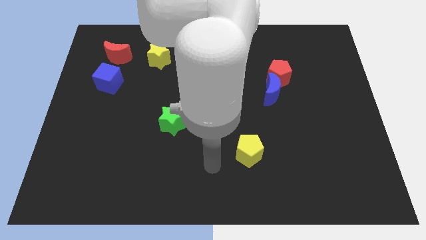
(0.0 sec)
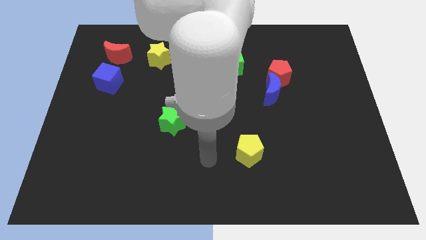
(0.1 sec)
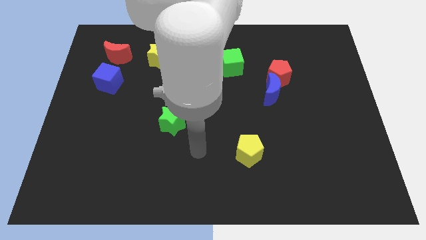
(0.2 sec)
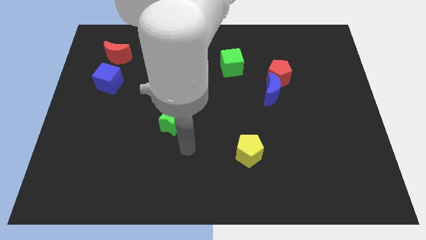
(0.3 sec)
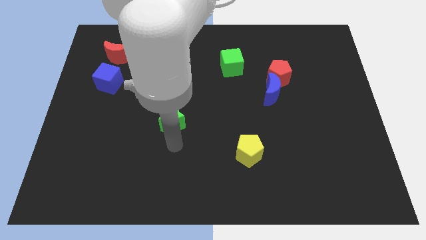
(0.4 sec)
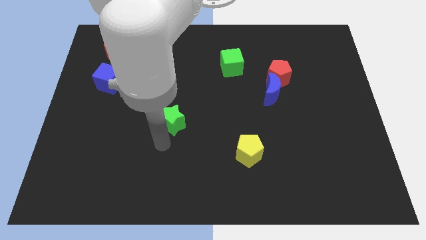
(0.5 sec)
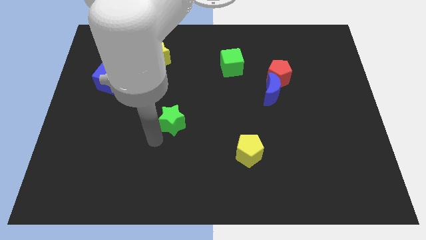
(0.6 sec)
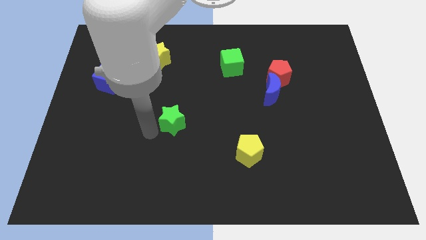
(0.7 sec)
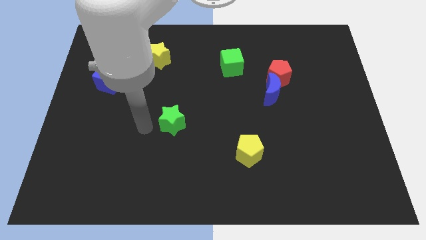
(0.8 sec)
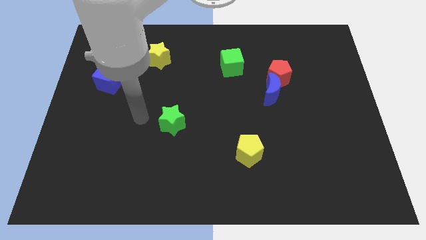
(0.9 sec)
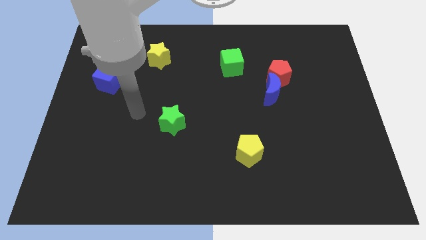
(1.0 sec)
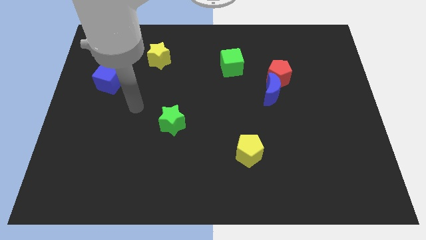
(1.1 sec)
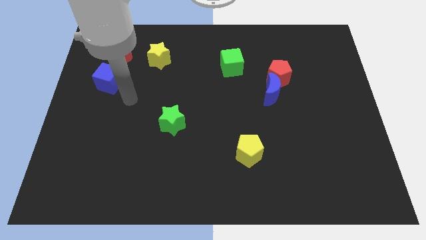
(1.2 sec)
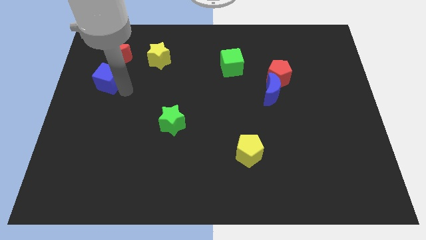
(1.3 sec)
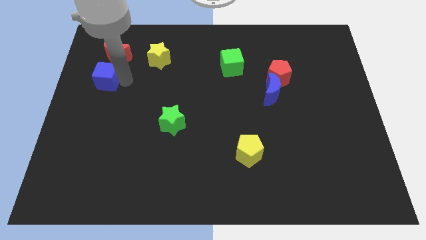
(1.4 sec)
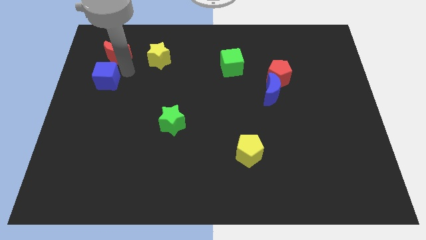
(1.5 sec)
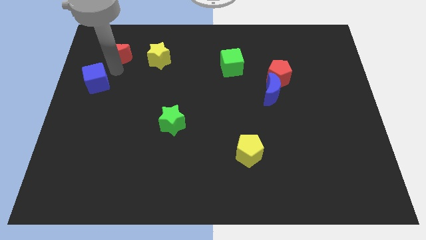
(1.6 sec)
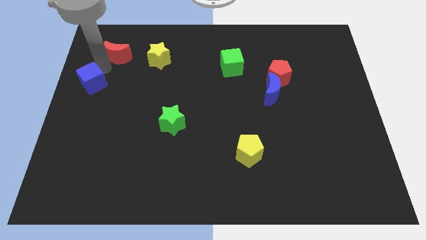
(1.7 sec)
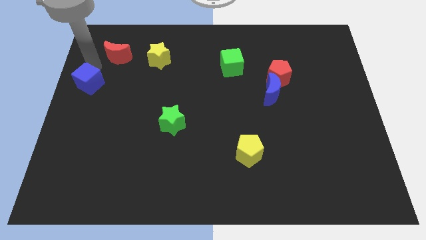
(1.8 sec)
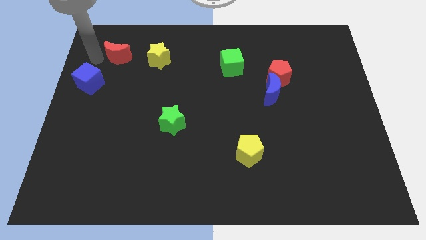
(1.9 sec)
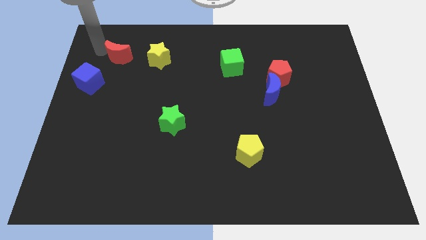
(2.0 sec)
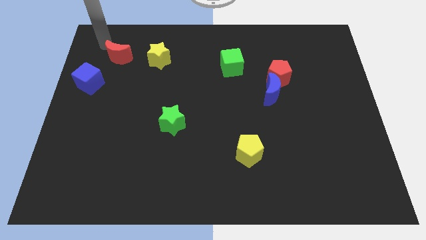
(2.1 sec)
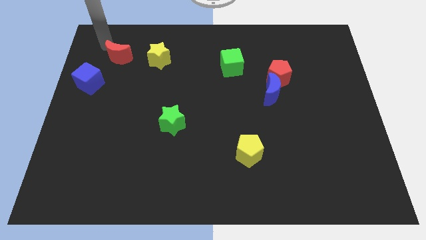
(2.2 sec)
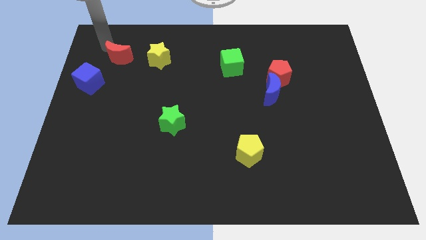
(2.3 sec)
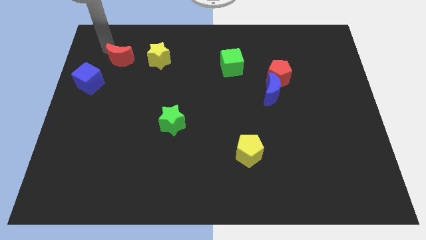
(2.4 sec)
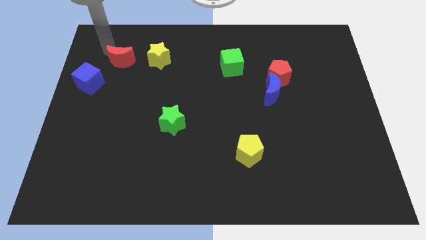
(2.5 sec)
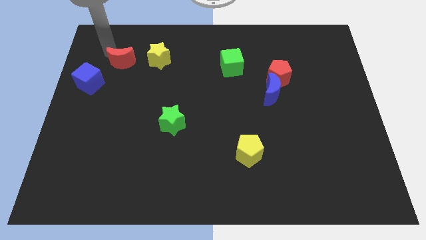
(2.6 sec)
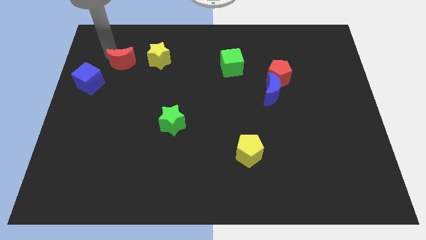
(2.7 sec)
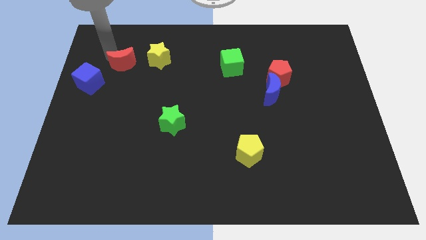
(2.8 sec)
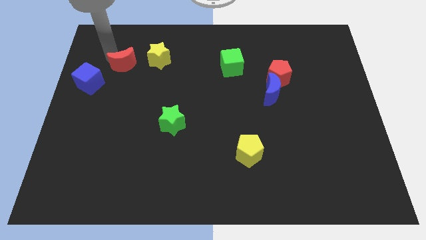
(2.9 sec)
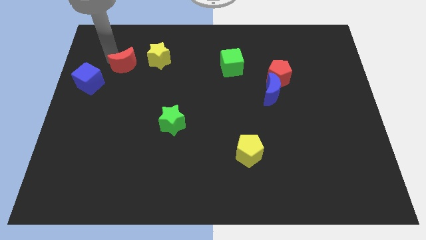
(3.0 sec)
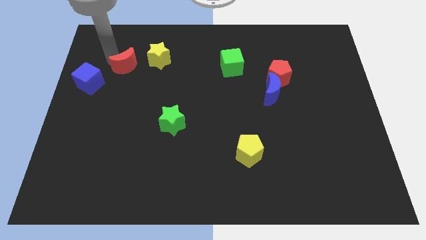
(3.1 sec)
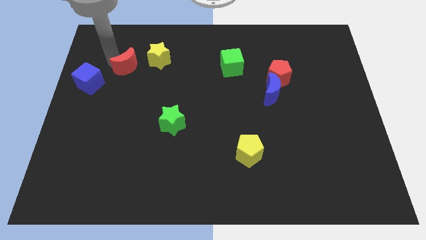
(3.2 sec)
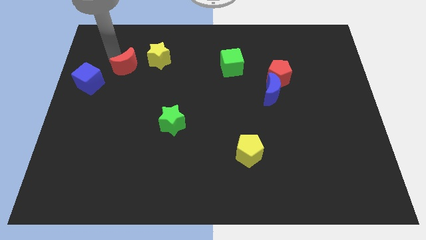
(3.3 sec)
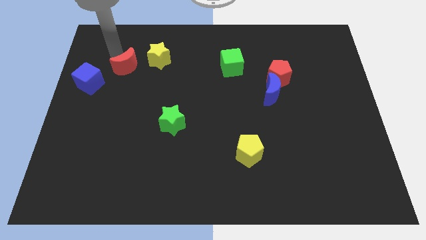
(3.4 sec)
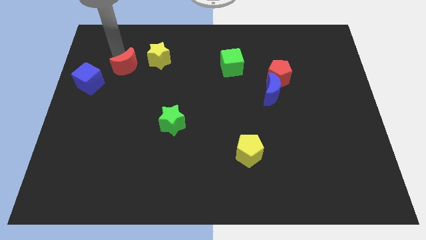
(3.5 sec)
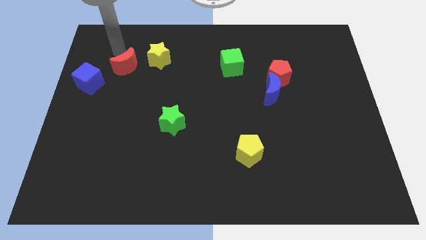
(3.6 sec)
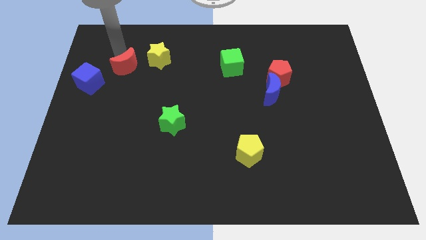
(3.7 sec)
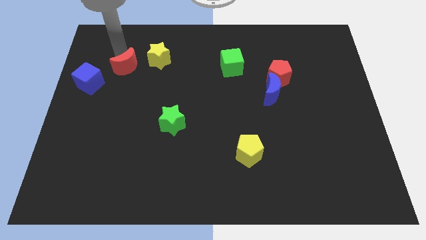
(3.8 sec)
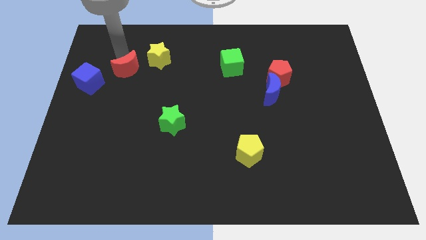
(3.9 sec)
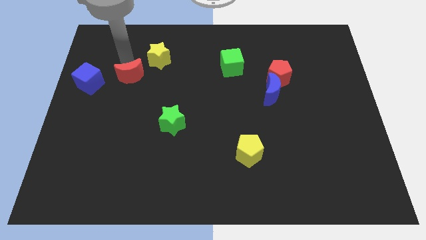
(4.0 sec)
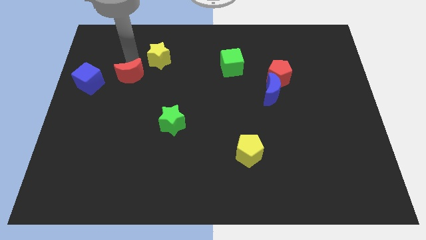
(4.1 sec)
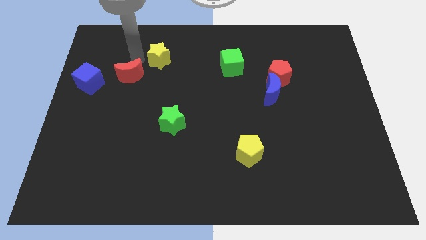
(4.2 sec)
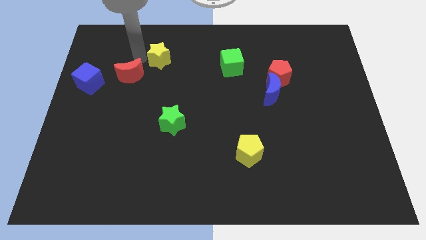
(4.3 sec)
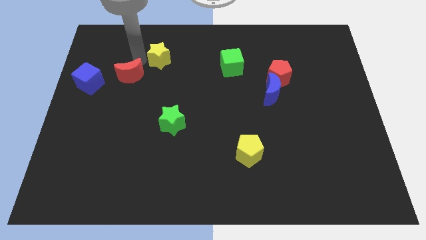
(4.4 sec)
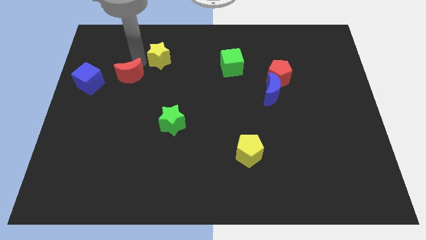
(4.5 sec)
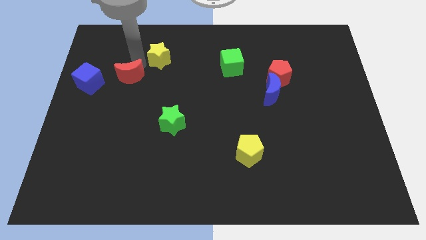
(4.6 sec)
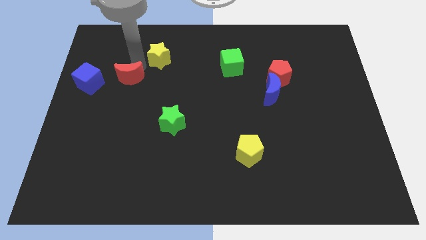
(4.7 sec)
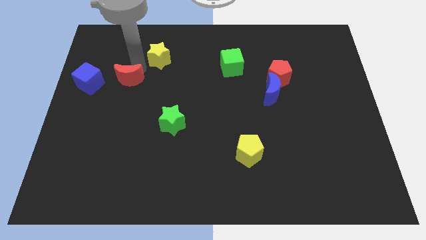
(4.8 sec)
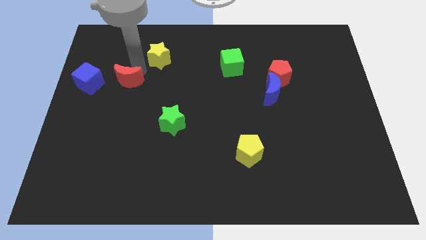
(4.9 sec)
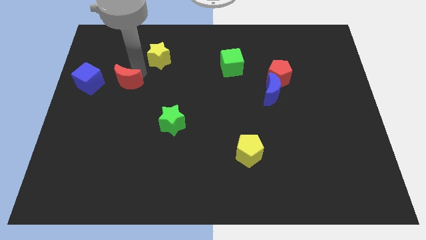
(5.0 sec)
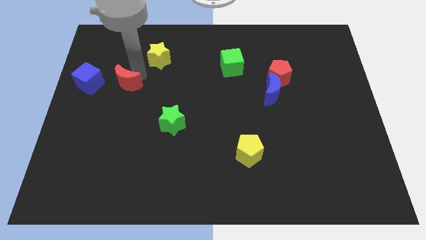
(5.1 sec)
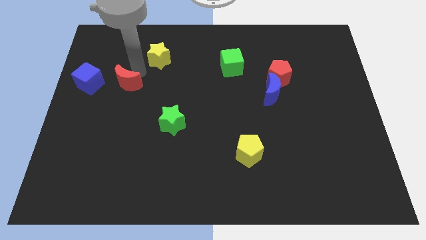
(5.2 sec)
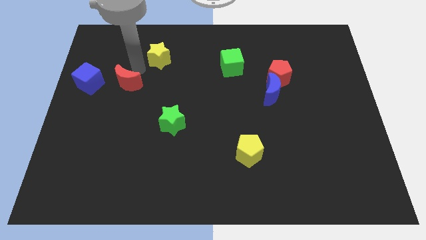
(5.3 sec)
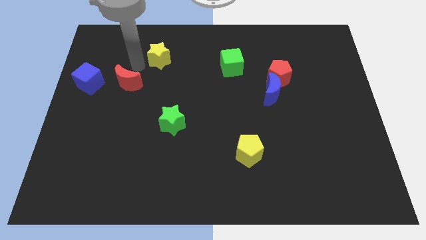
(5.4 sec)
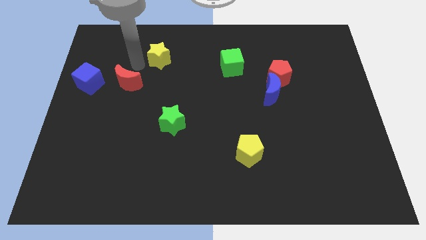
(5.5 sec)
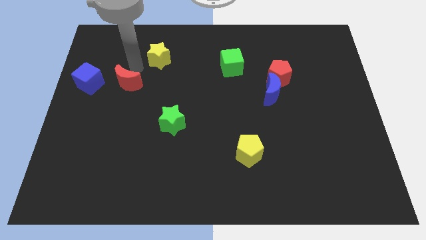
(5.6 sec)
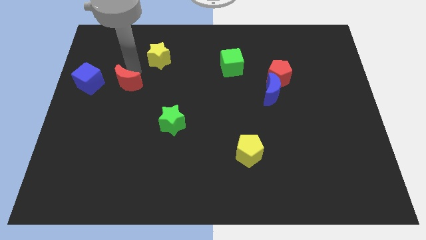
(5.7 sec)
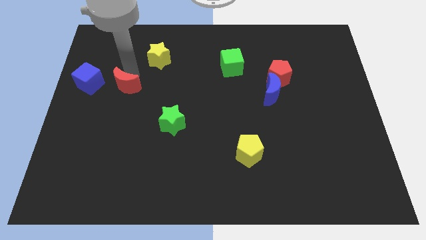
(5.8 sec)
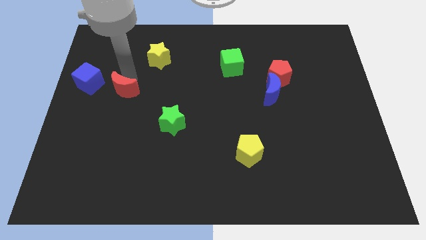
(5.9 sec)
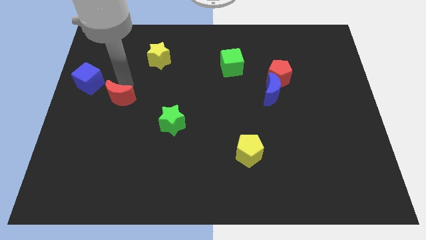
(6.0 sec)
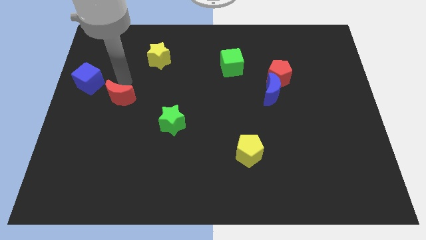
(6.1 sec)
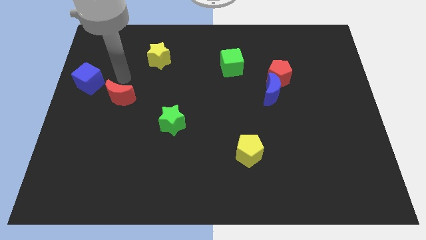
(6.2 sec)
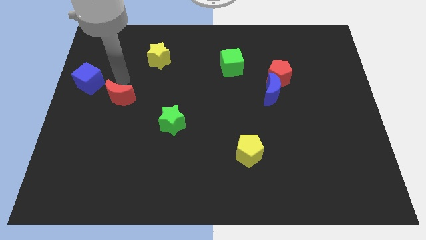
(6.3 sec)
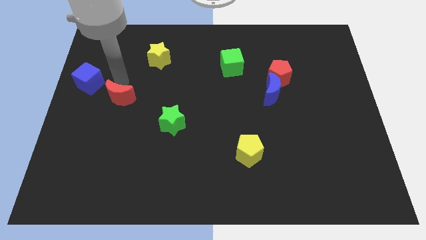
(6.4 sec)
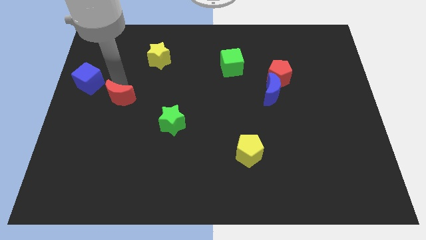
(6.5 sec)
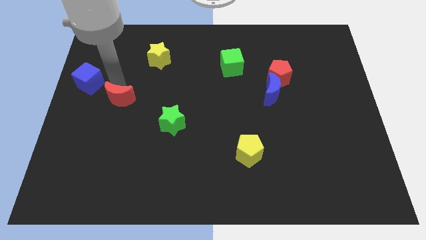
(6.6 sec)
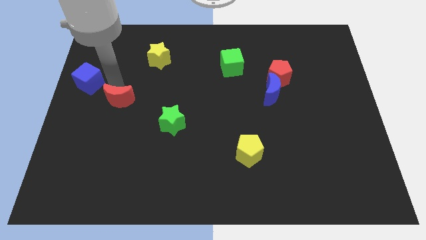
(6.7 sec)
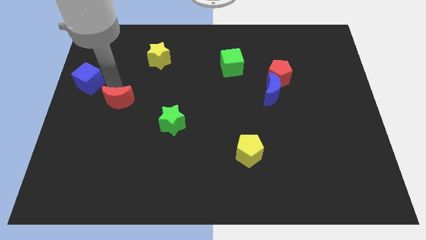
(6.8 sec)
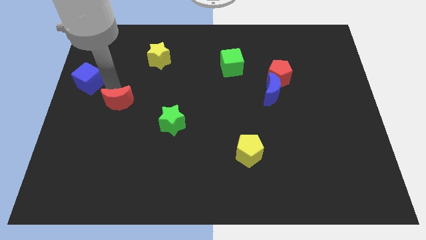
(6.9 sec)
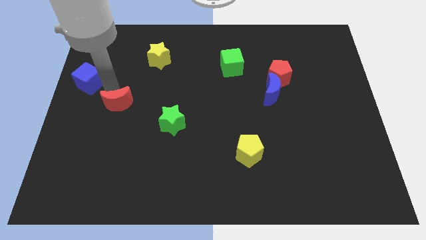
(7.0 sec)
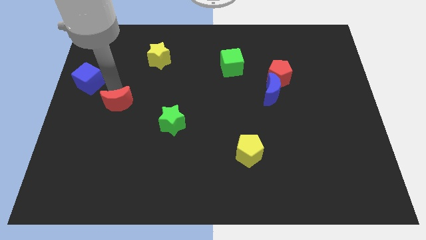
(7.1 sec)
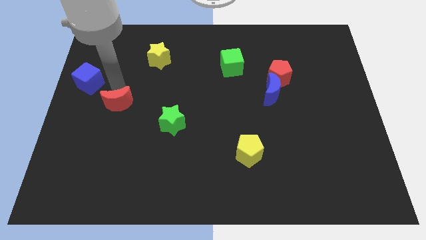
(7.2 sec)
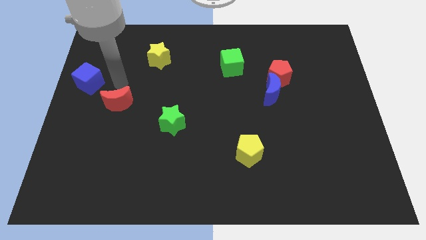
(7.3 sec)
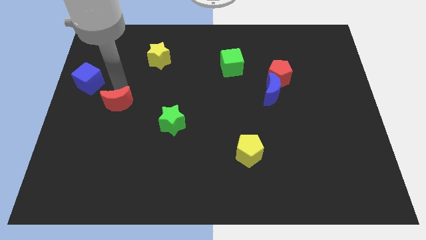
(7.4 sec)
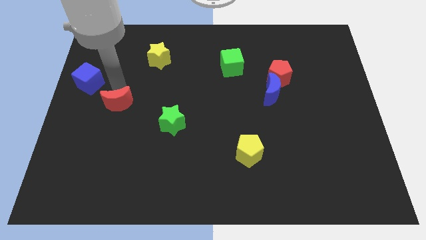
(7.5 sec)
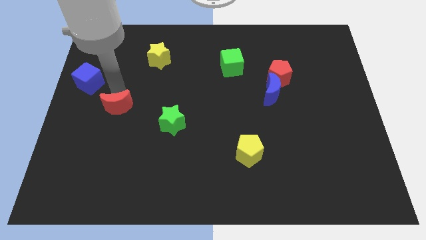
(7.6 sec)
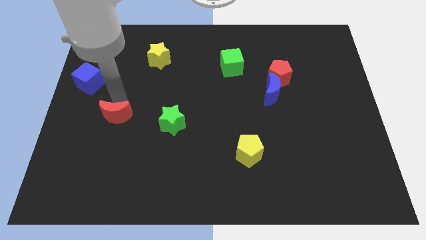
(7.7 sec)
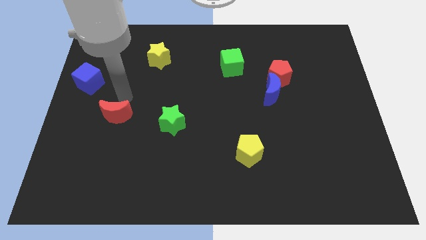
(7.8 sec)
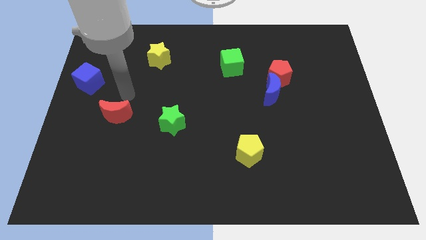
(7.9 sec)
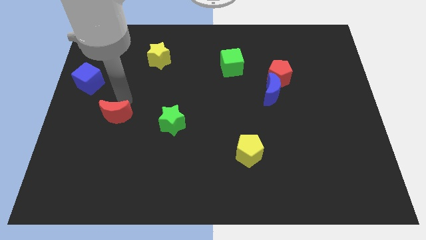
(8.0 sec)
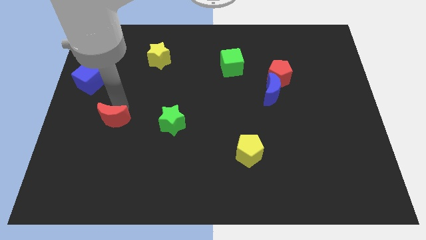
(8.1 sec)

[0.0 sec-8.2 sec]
push the red moon down
